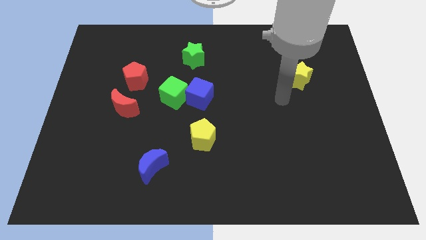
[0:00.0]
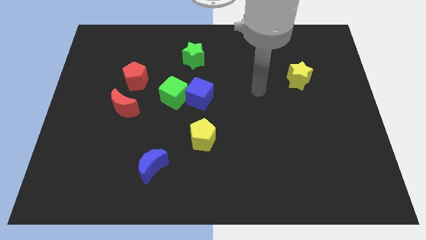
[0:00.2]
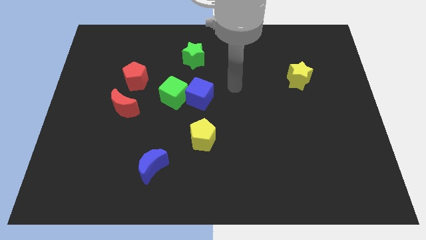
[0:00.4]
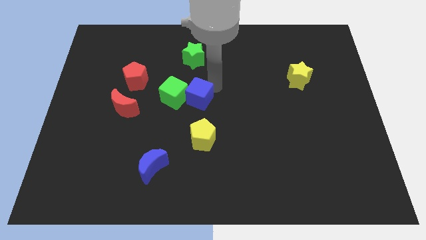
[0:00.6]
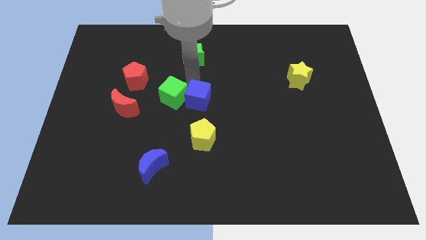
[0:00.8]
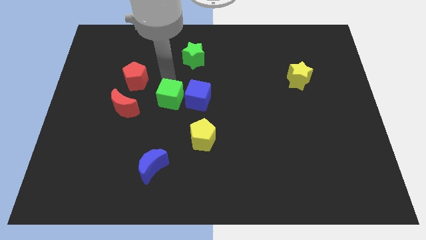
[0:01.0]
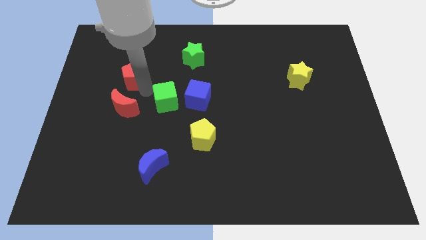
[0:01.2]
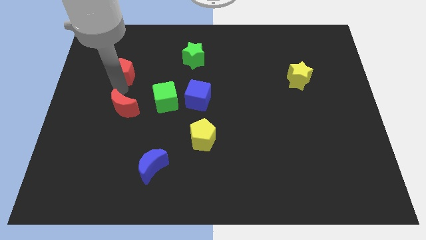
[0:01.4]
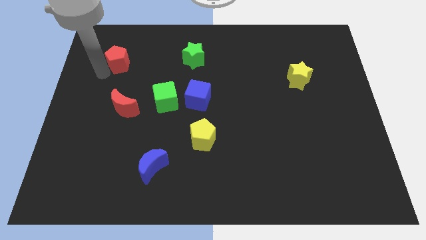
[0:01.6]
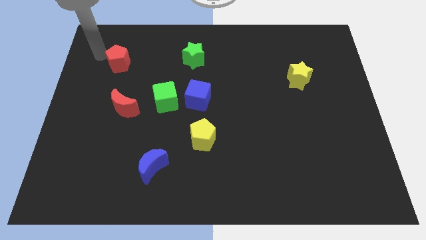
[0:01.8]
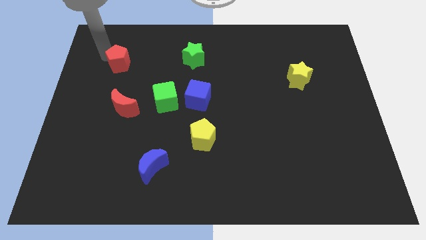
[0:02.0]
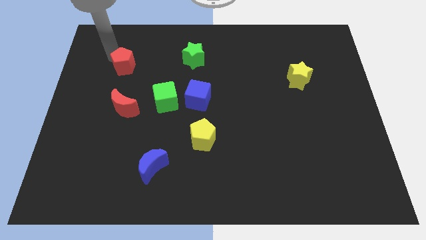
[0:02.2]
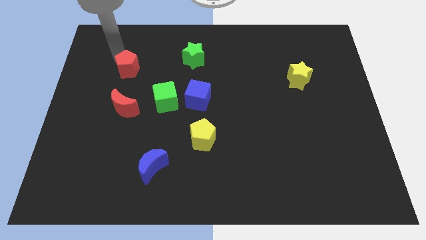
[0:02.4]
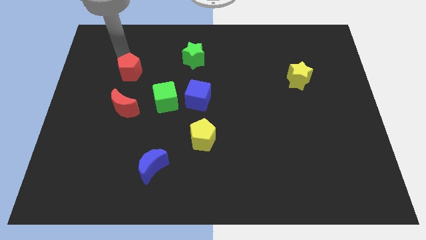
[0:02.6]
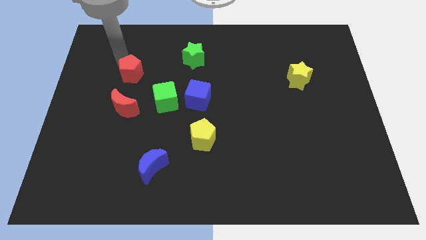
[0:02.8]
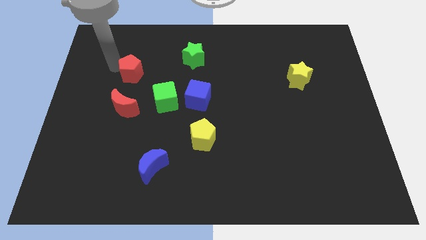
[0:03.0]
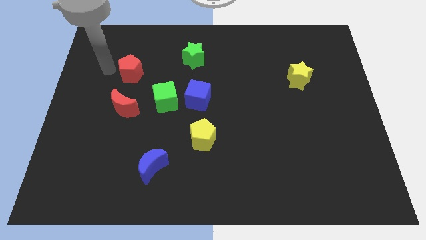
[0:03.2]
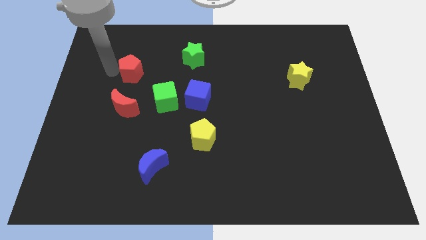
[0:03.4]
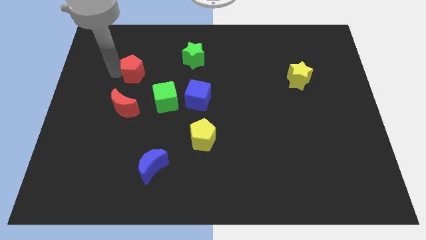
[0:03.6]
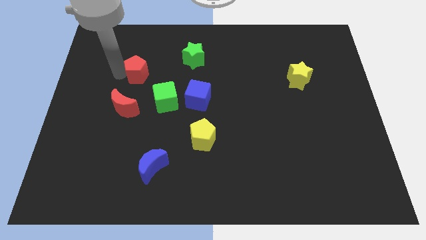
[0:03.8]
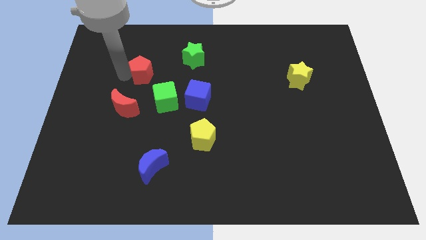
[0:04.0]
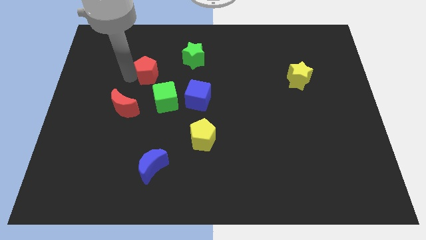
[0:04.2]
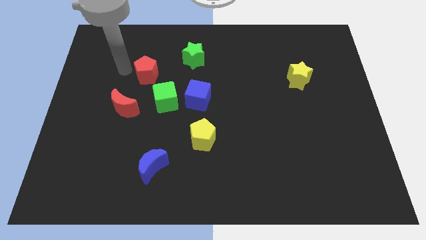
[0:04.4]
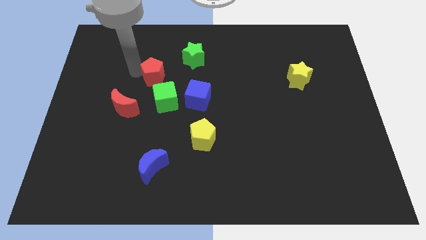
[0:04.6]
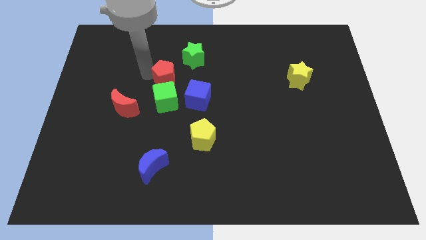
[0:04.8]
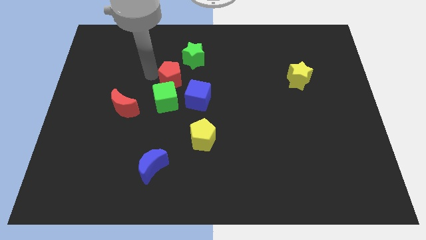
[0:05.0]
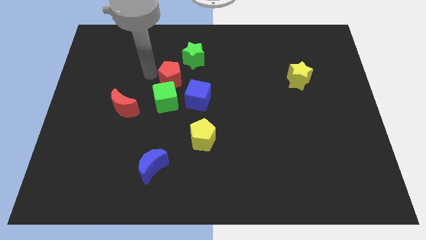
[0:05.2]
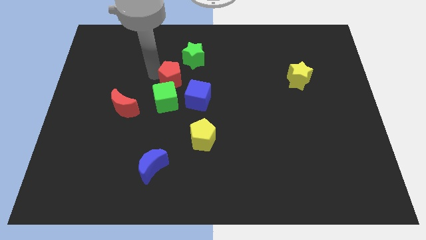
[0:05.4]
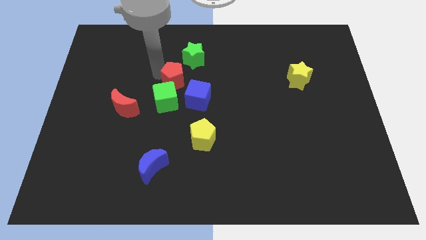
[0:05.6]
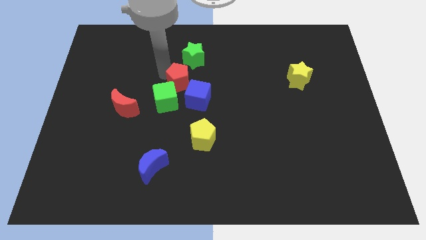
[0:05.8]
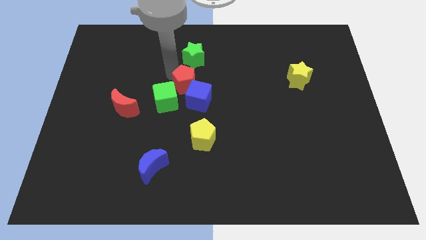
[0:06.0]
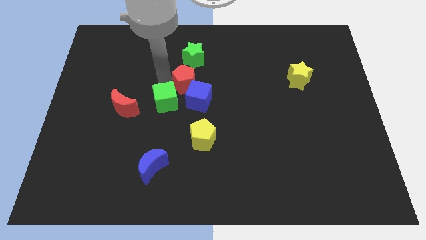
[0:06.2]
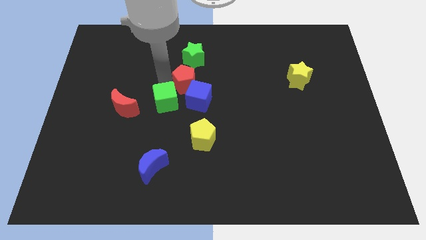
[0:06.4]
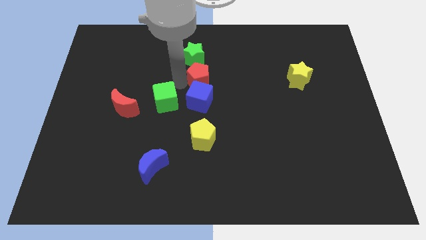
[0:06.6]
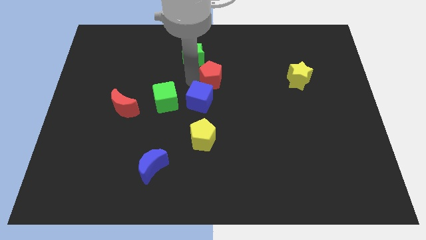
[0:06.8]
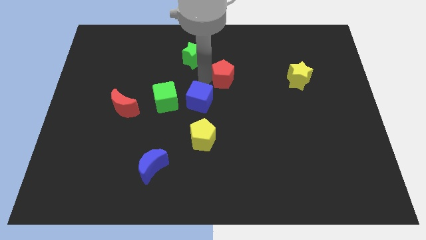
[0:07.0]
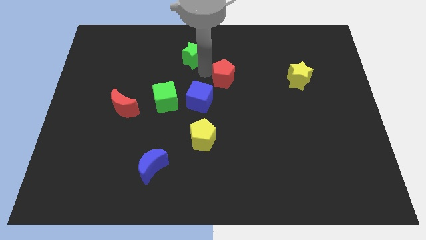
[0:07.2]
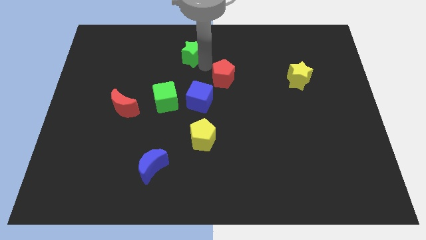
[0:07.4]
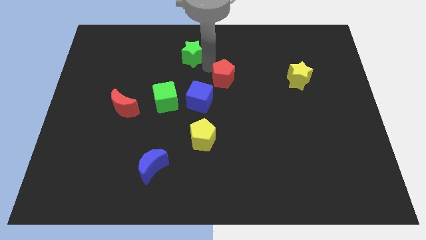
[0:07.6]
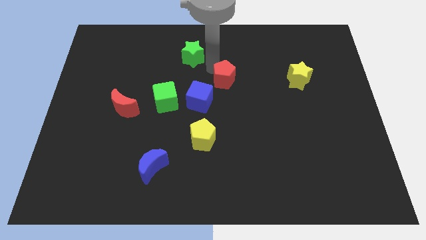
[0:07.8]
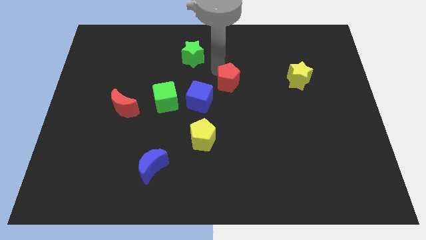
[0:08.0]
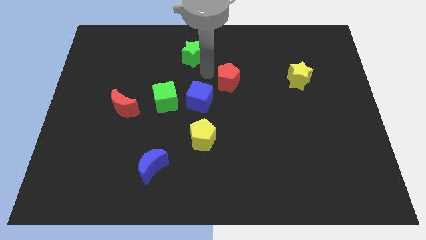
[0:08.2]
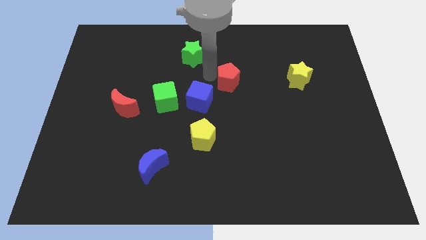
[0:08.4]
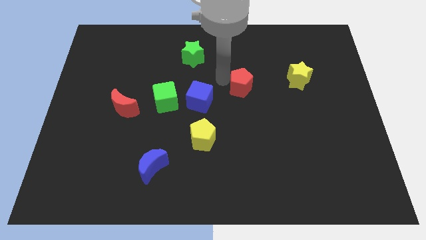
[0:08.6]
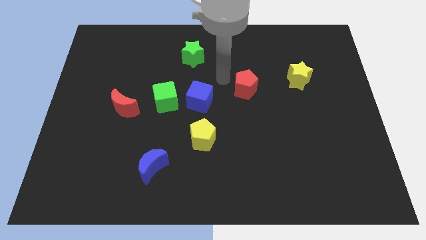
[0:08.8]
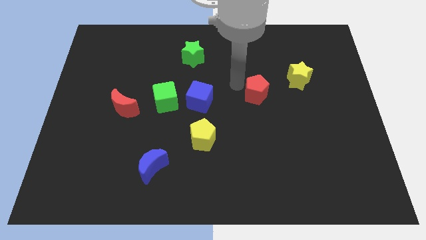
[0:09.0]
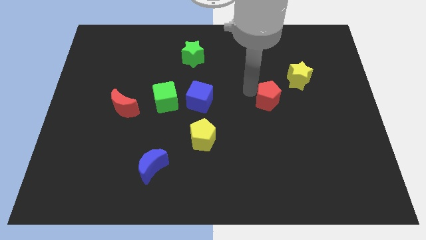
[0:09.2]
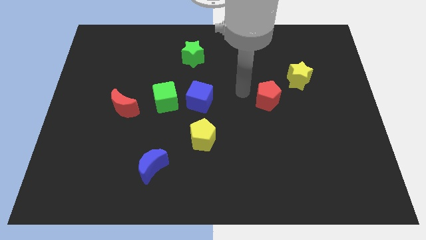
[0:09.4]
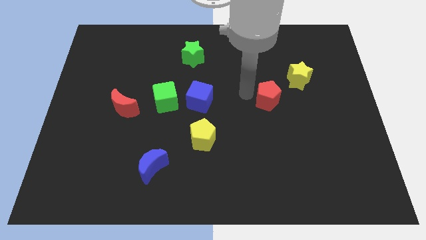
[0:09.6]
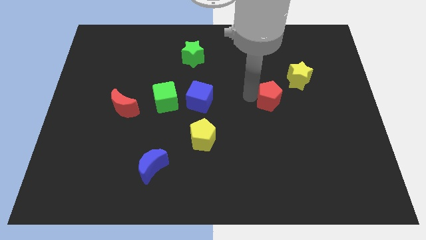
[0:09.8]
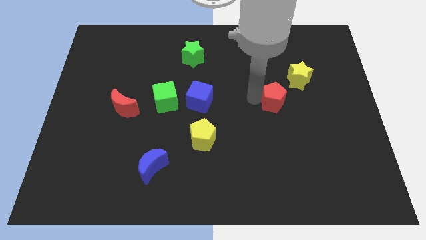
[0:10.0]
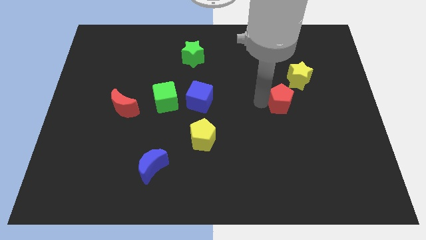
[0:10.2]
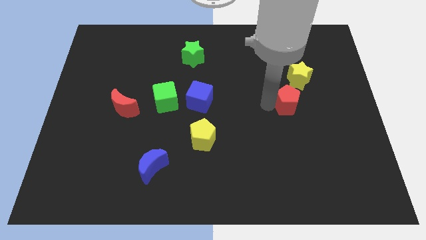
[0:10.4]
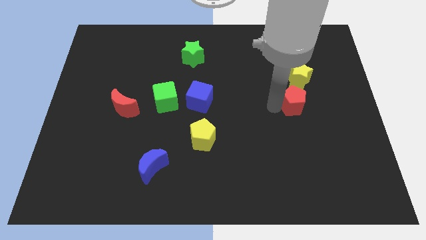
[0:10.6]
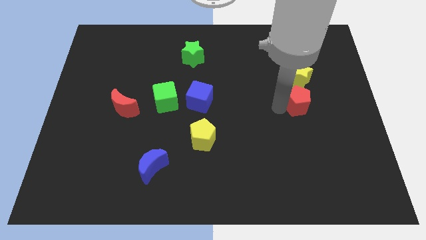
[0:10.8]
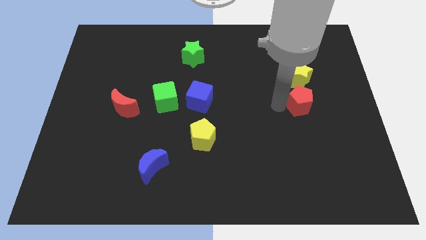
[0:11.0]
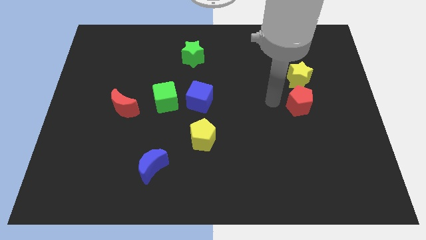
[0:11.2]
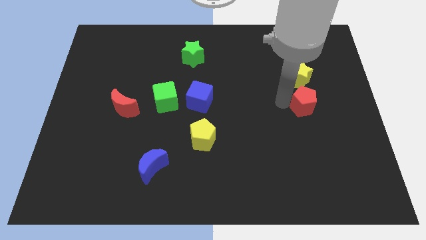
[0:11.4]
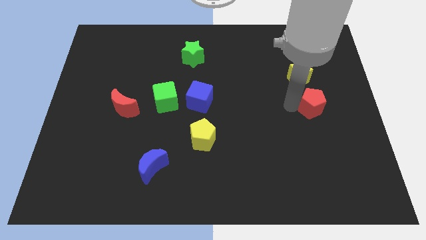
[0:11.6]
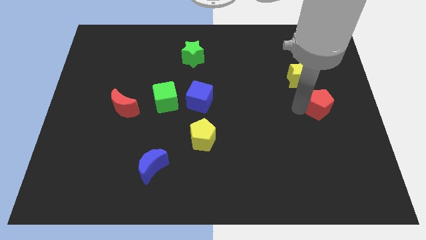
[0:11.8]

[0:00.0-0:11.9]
put the red pentagon to the right side of the board

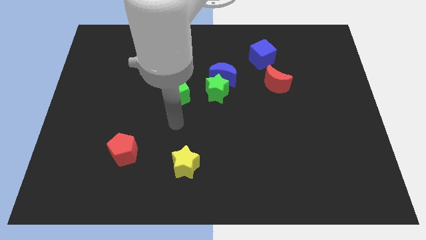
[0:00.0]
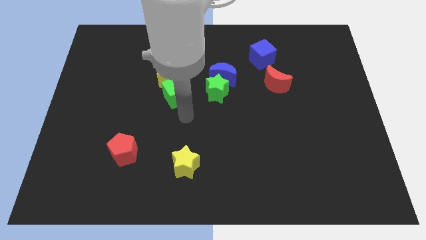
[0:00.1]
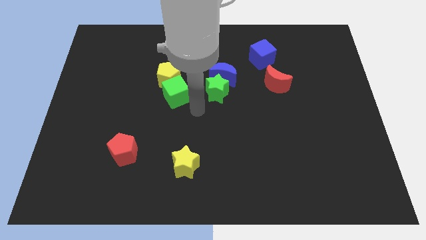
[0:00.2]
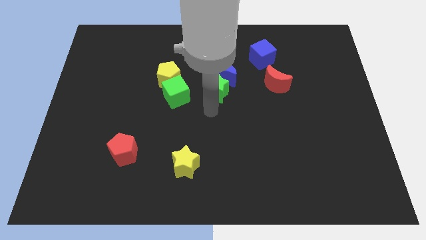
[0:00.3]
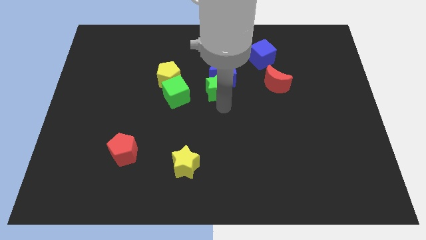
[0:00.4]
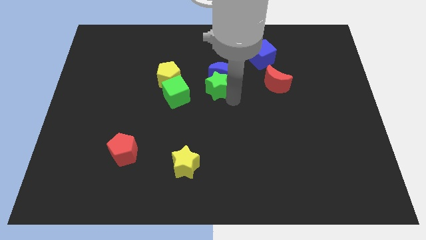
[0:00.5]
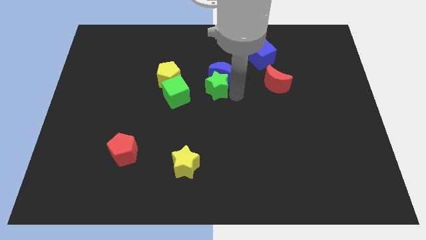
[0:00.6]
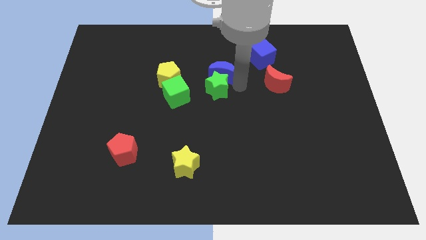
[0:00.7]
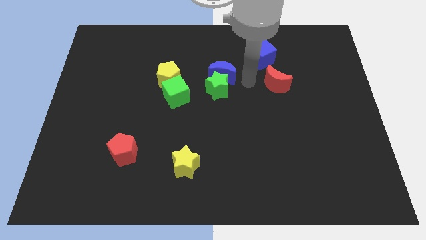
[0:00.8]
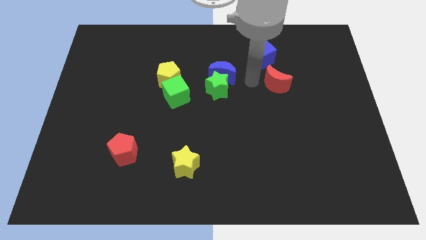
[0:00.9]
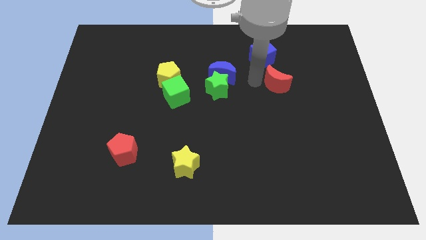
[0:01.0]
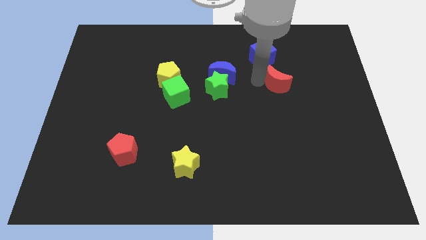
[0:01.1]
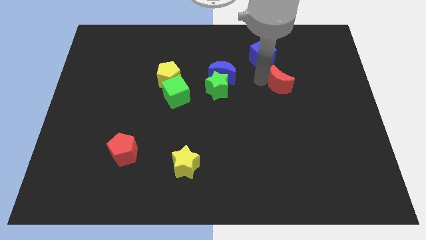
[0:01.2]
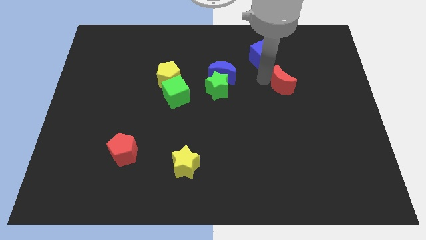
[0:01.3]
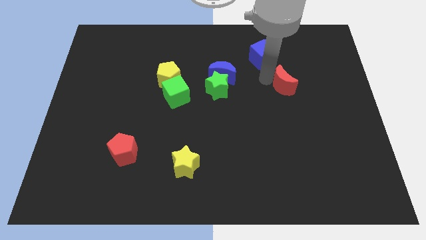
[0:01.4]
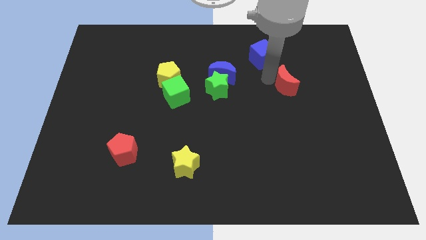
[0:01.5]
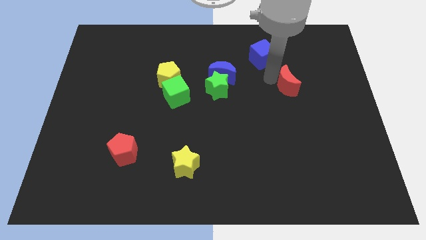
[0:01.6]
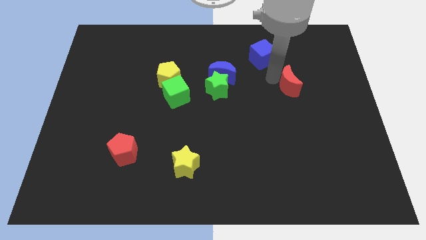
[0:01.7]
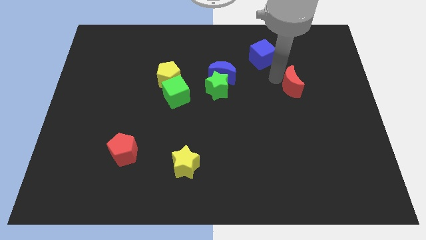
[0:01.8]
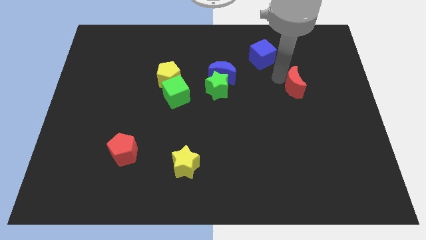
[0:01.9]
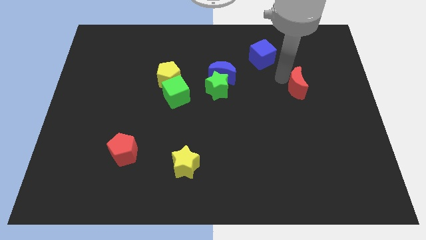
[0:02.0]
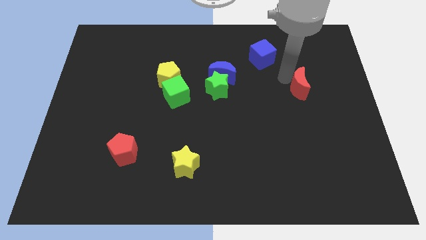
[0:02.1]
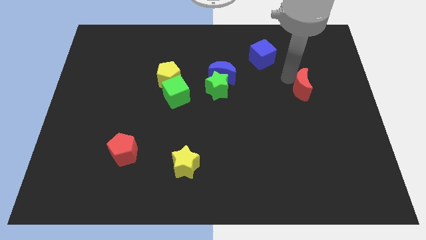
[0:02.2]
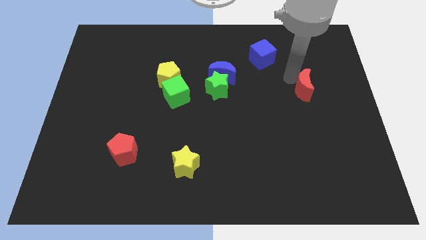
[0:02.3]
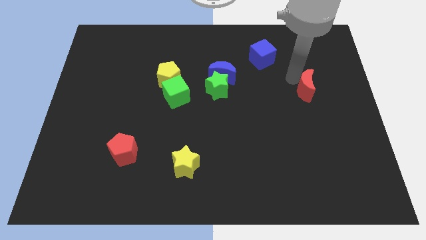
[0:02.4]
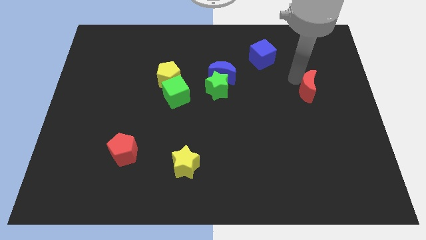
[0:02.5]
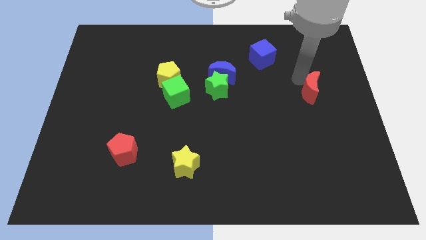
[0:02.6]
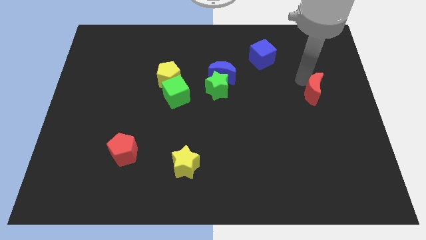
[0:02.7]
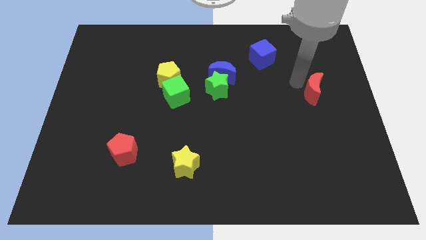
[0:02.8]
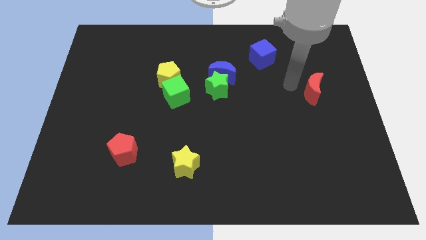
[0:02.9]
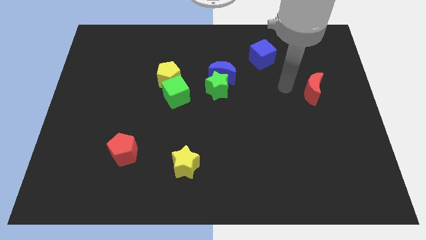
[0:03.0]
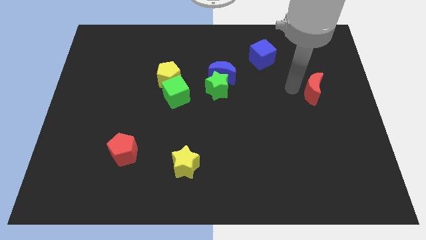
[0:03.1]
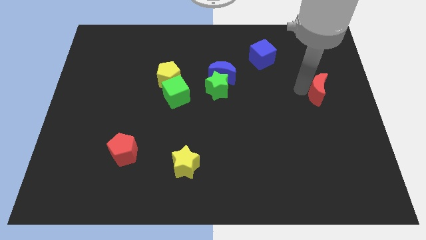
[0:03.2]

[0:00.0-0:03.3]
slide the red moon to the right side of the board
